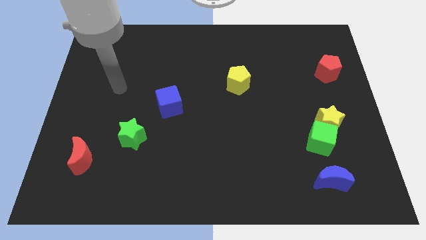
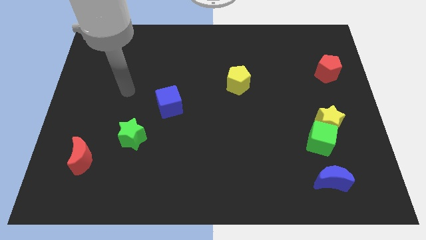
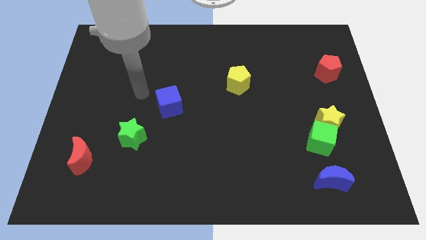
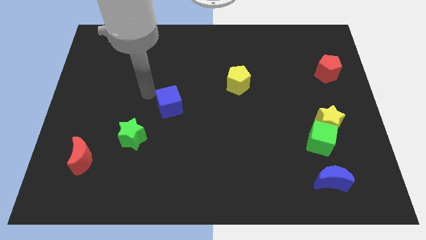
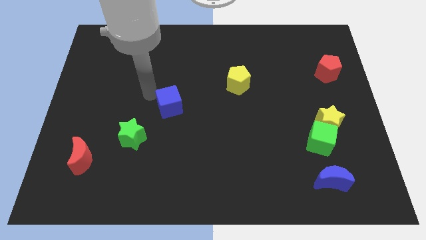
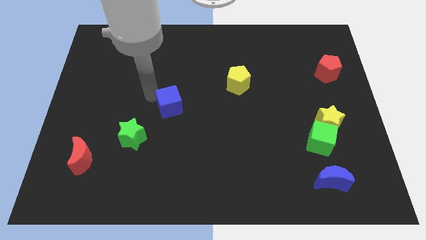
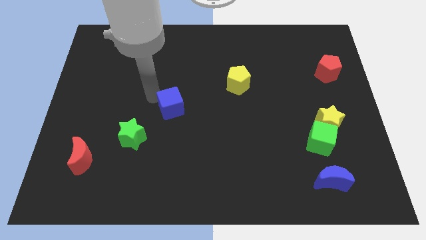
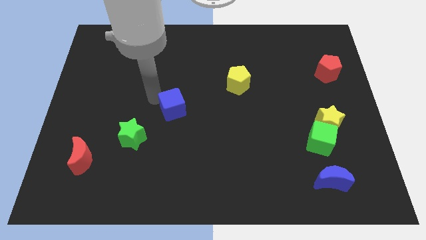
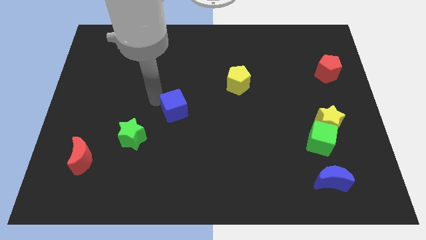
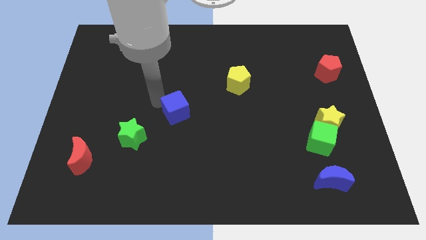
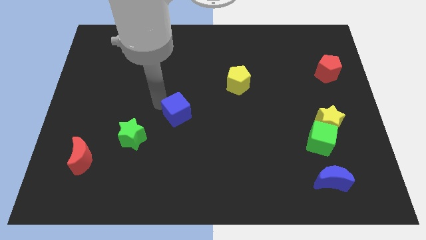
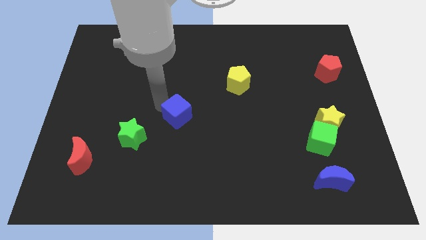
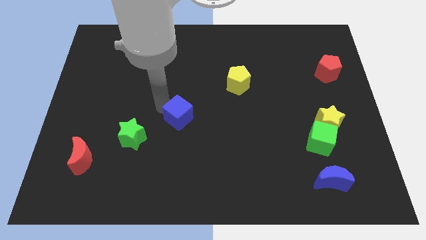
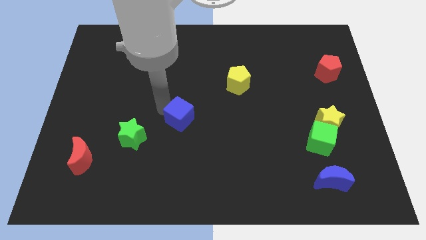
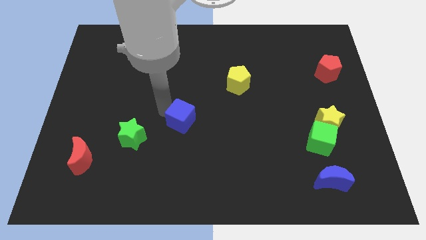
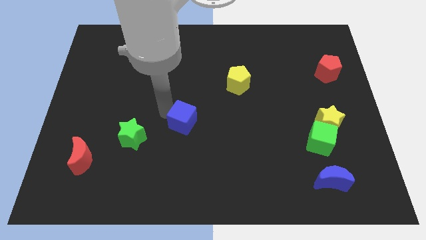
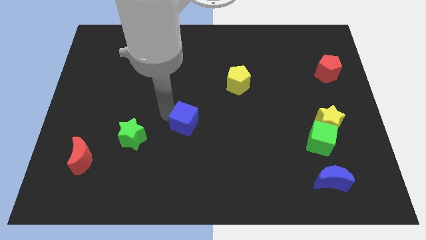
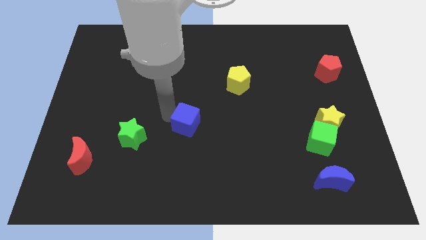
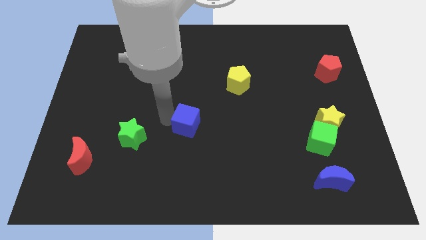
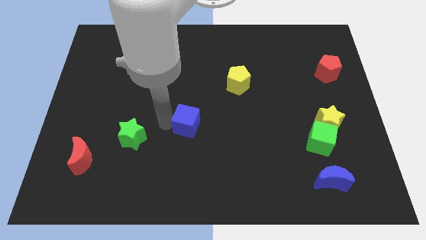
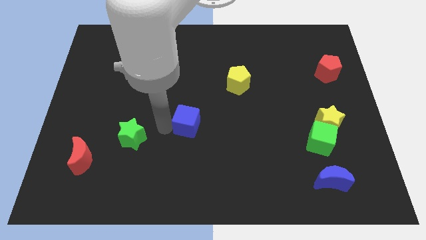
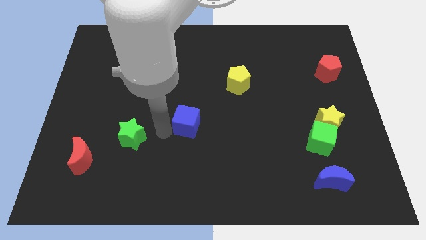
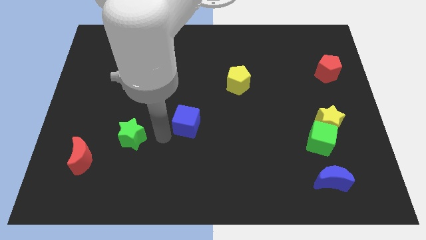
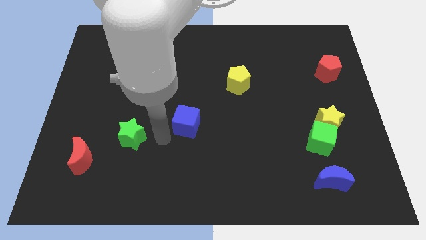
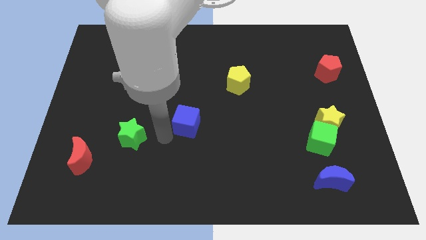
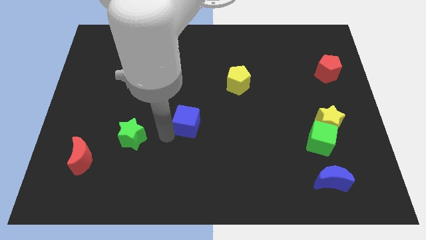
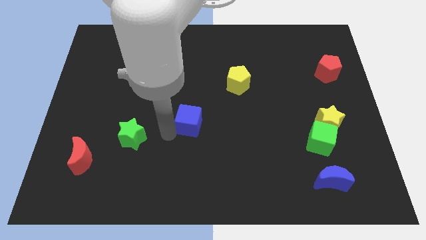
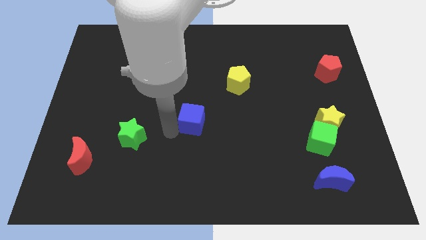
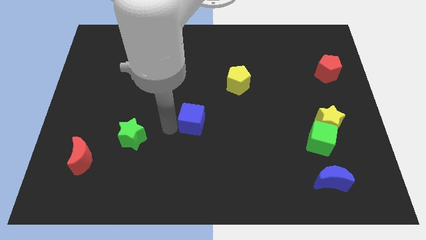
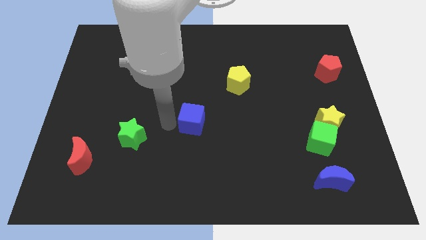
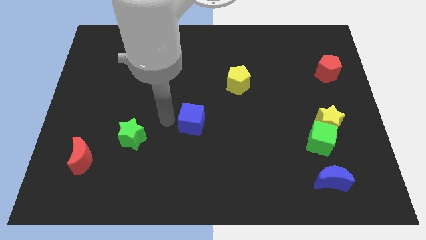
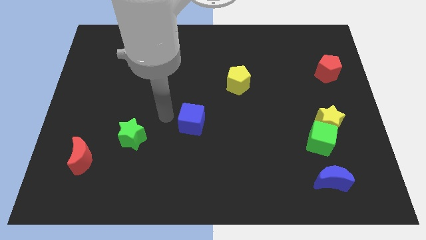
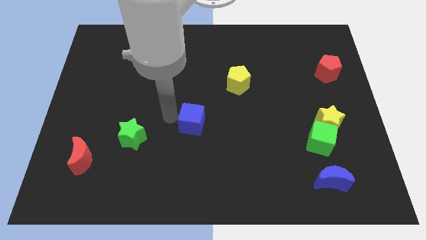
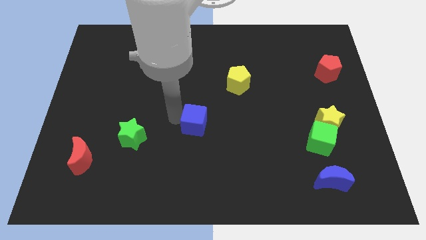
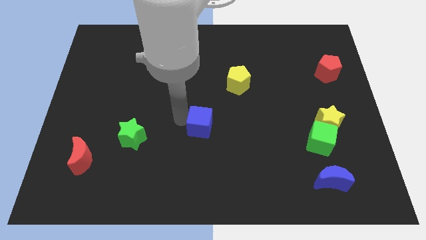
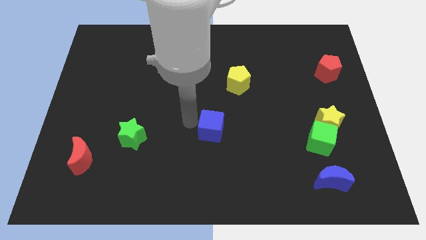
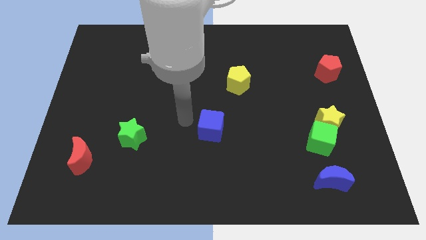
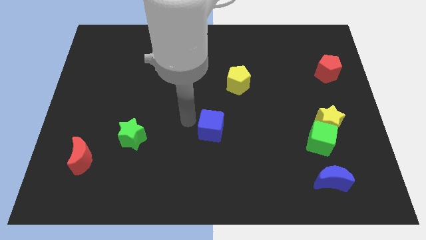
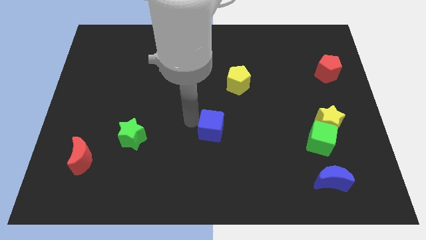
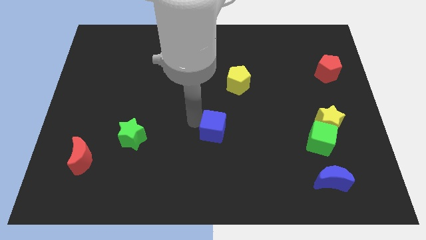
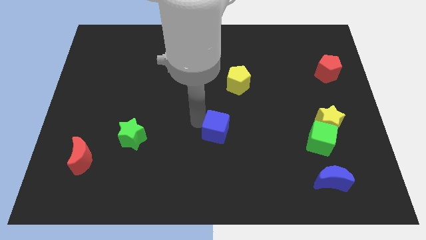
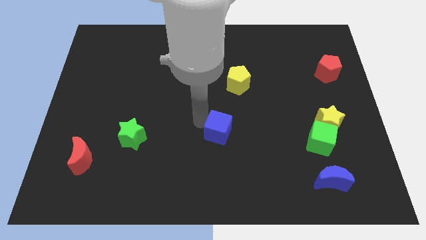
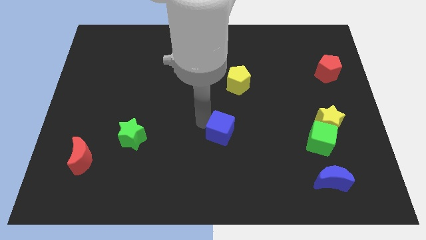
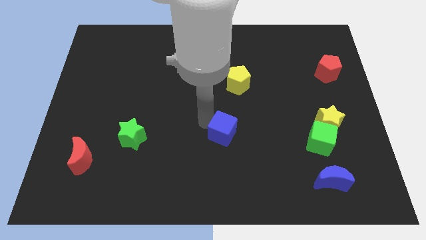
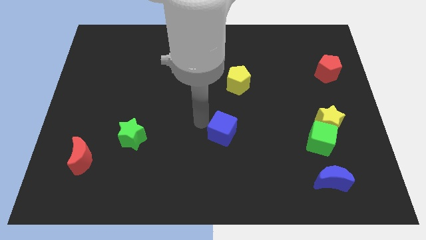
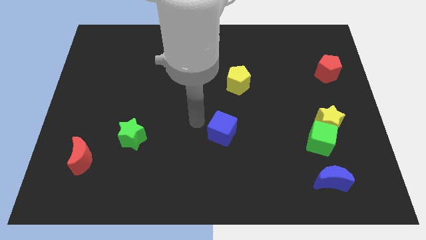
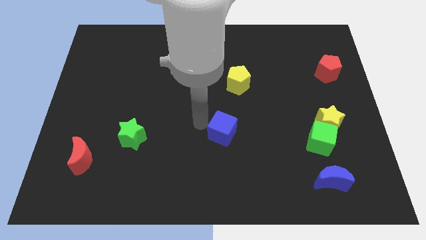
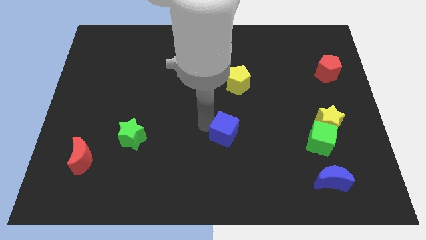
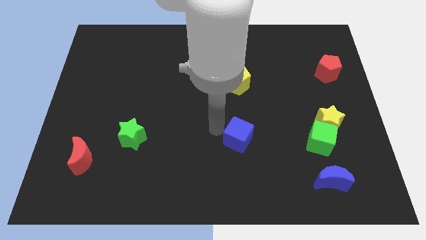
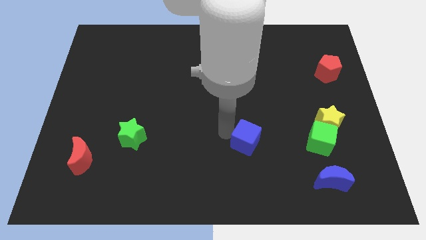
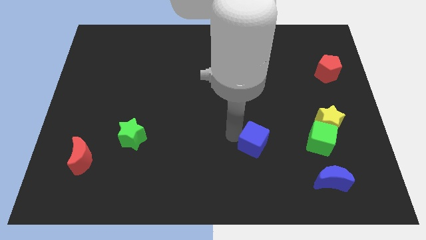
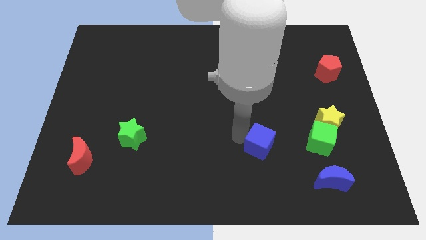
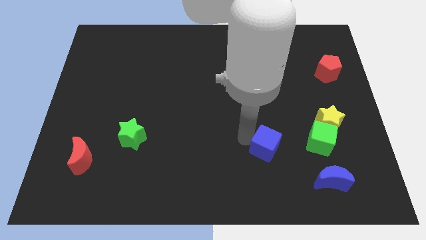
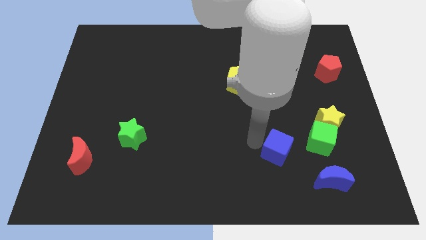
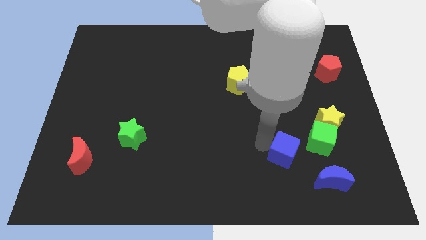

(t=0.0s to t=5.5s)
slide the blue cube to the bottom left side of the green cube

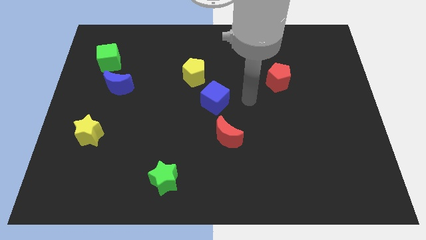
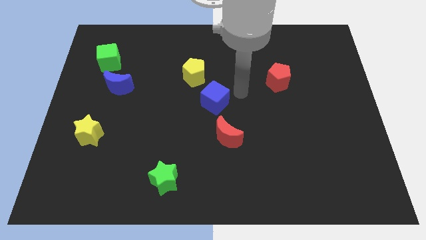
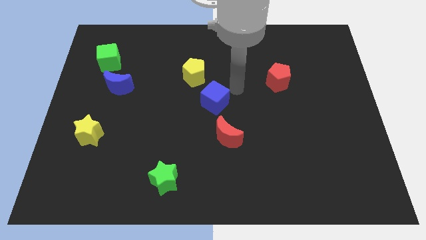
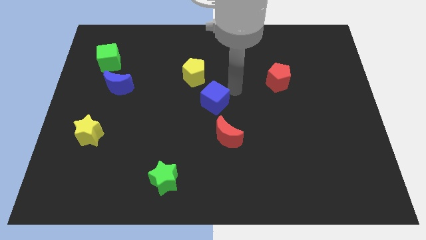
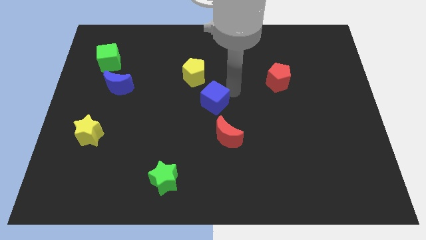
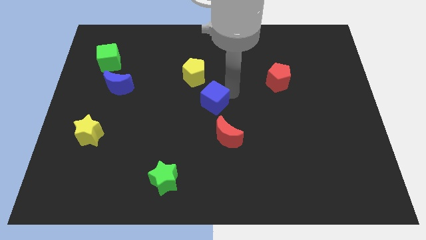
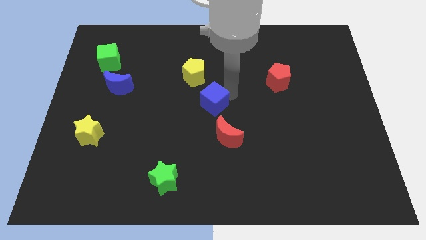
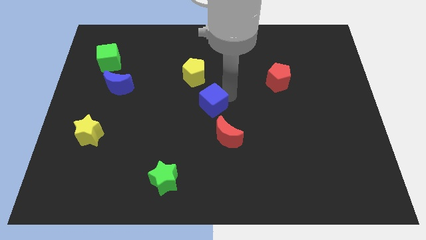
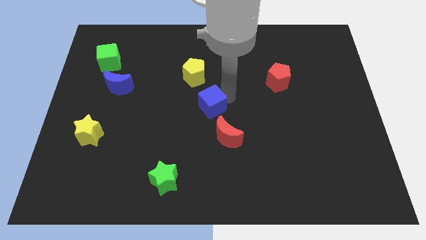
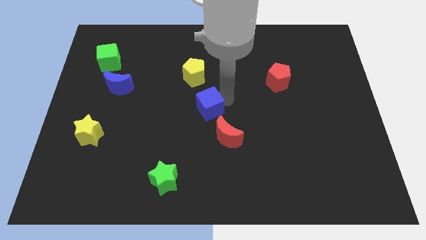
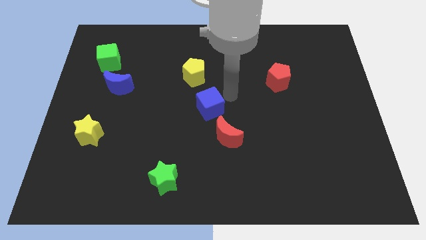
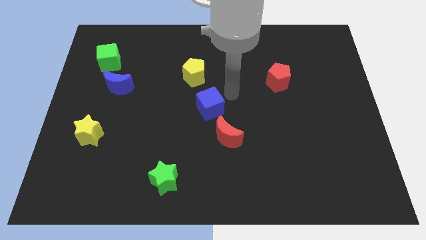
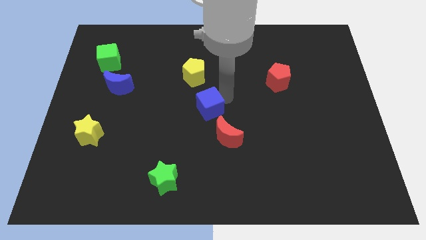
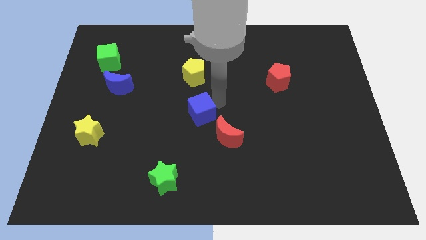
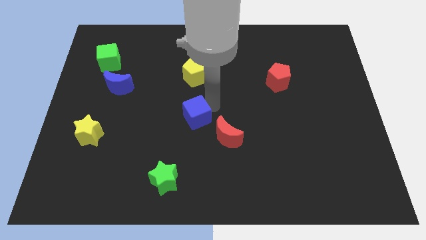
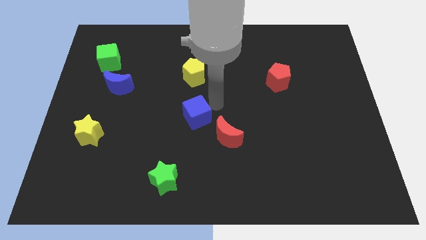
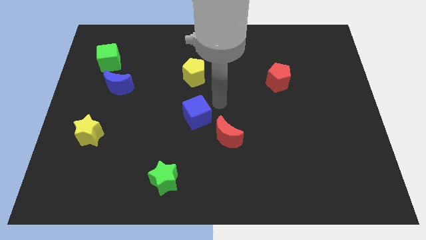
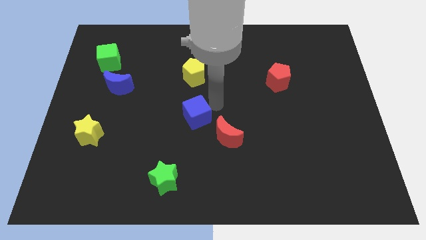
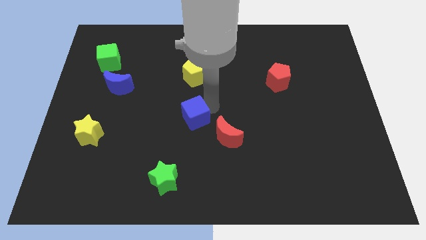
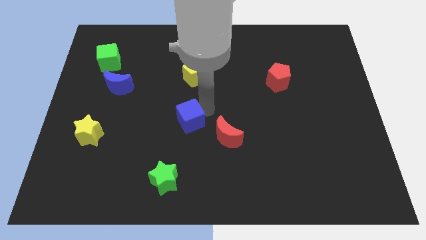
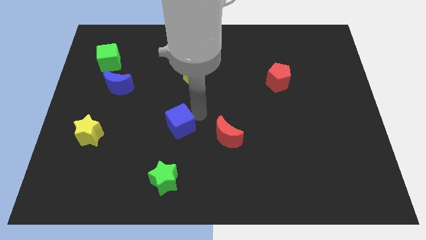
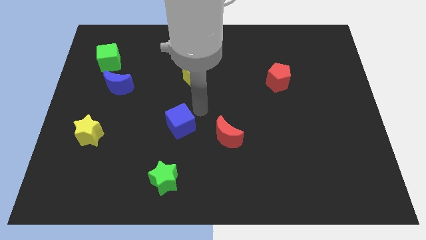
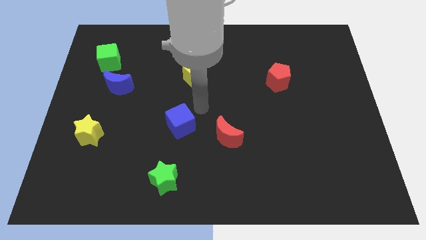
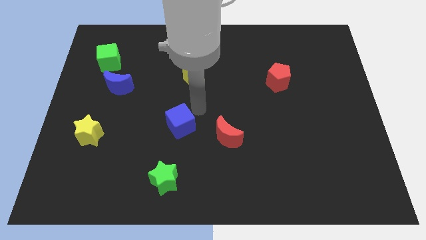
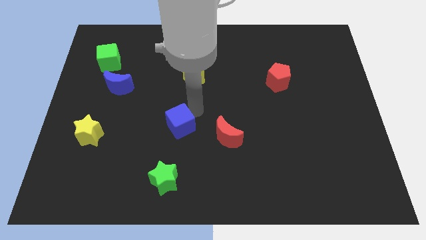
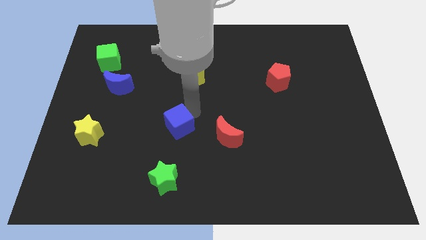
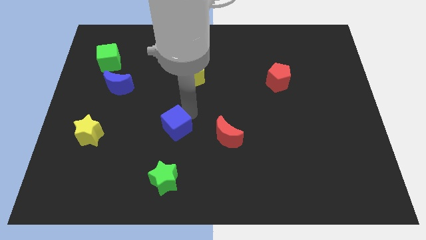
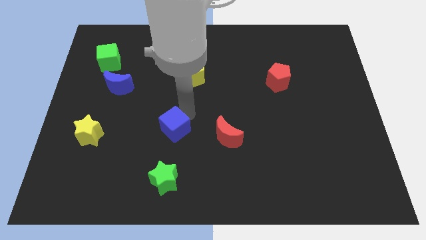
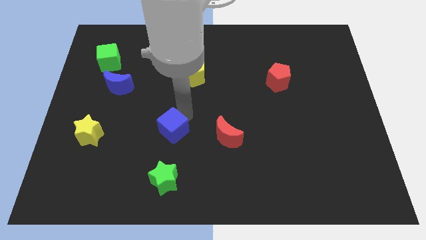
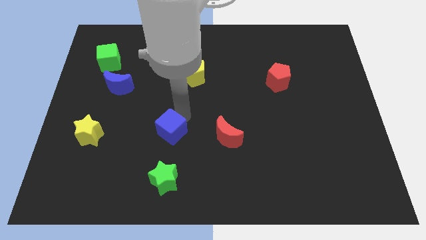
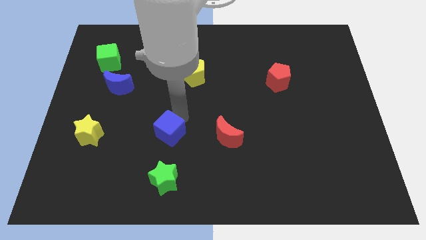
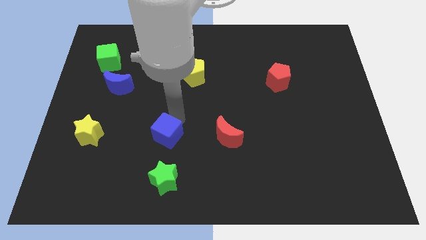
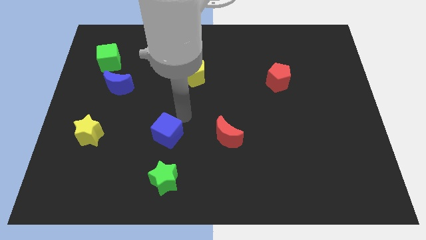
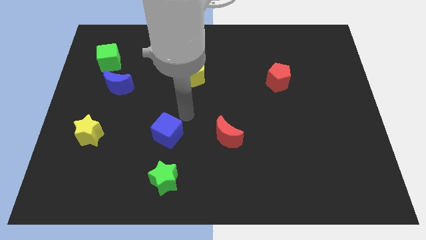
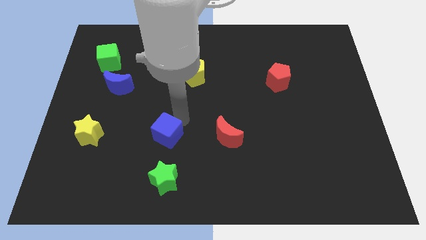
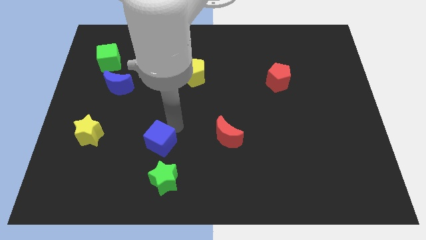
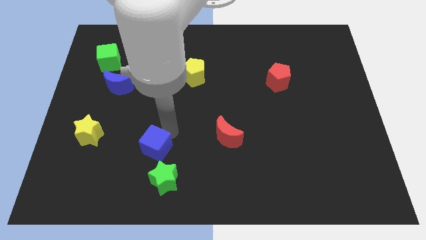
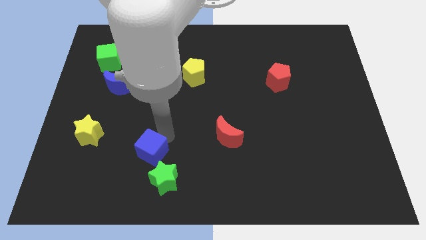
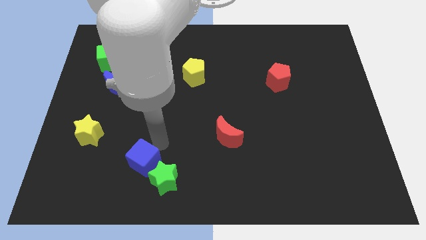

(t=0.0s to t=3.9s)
push the blue cube to the left side of the green star
